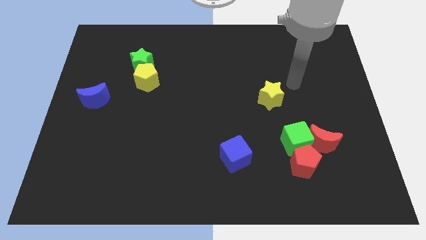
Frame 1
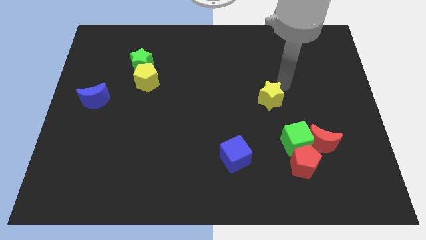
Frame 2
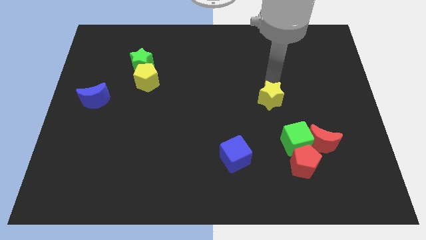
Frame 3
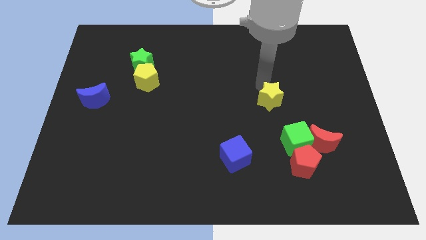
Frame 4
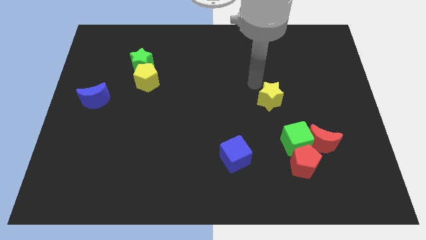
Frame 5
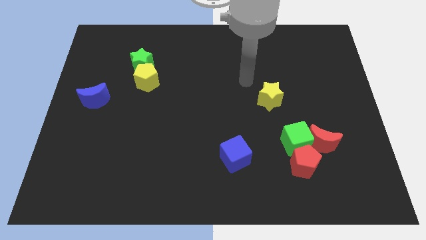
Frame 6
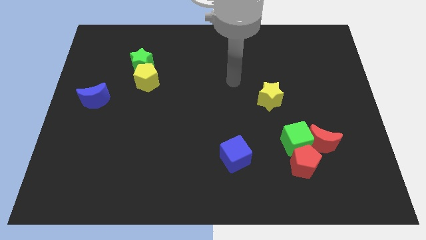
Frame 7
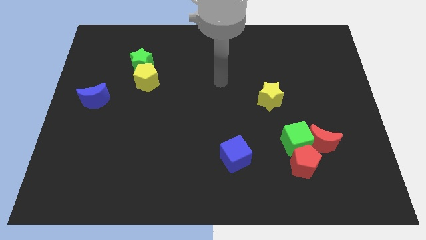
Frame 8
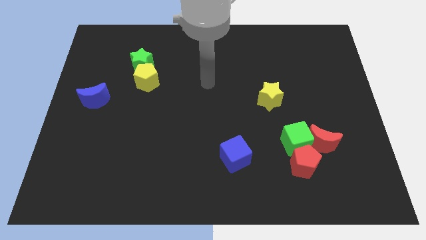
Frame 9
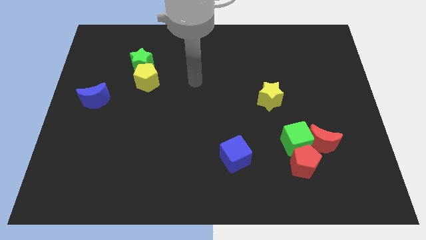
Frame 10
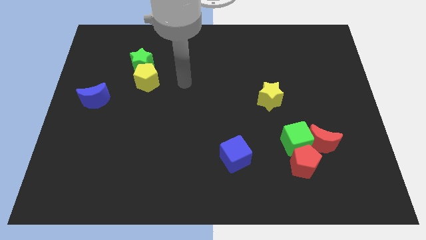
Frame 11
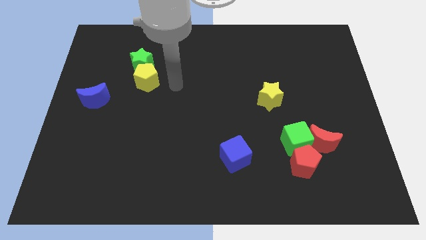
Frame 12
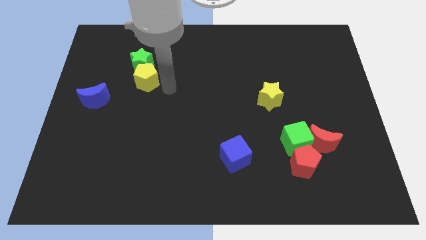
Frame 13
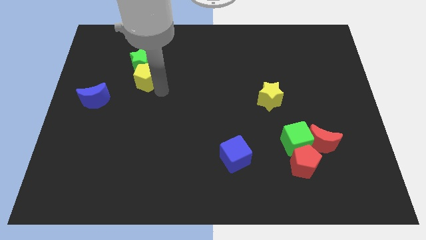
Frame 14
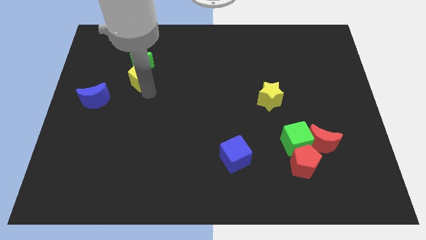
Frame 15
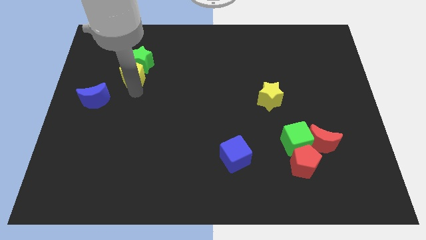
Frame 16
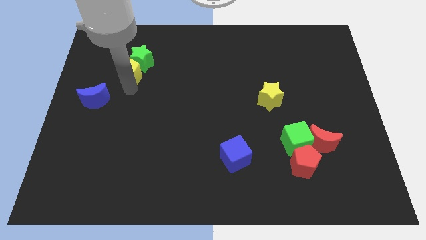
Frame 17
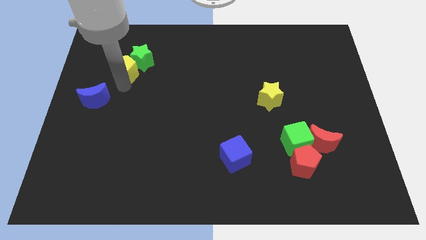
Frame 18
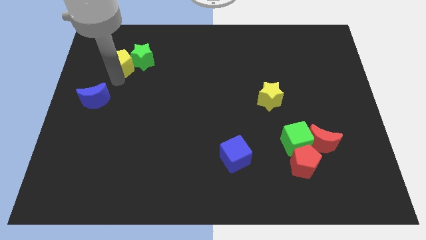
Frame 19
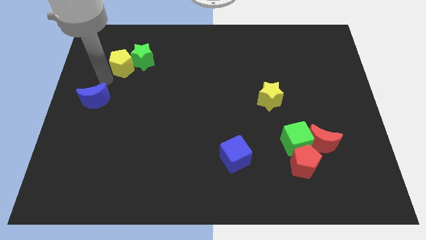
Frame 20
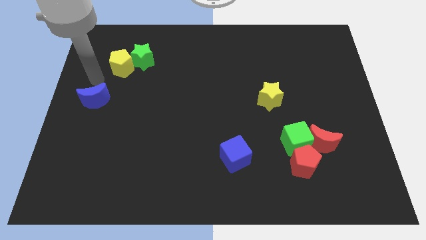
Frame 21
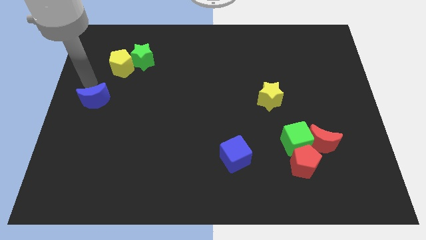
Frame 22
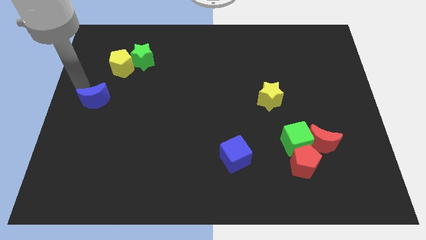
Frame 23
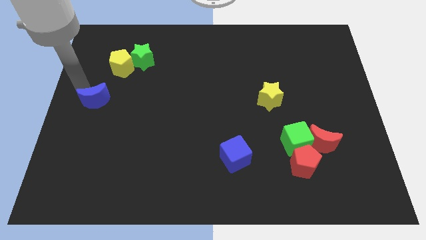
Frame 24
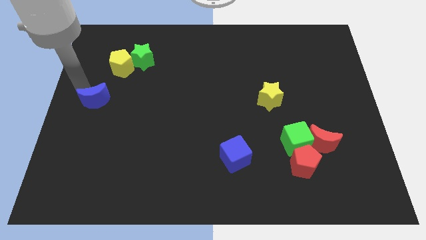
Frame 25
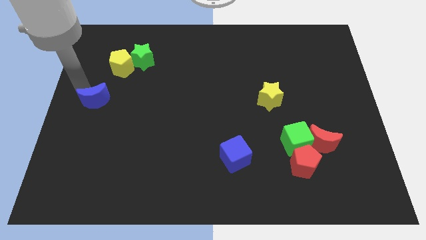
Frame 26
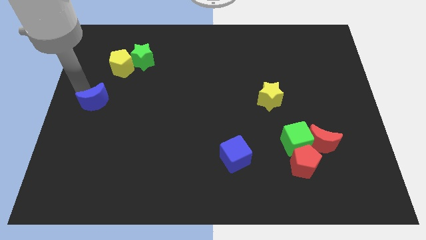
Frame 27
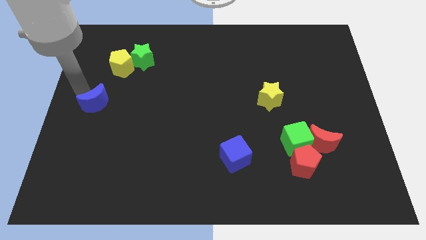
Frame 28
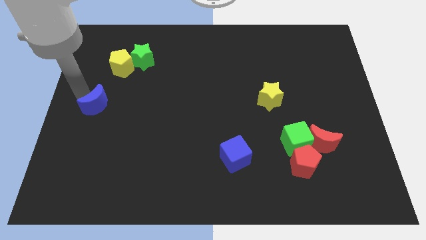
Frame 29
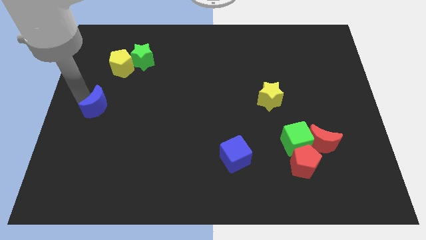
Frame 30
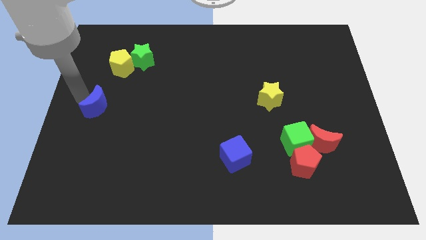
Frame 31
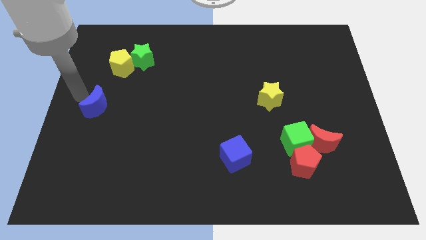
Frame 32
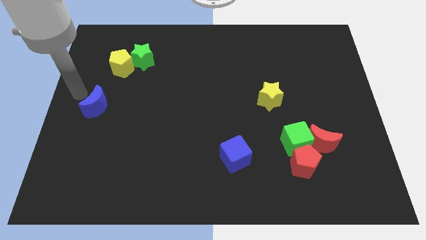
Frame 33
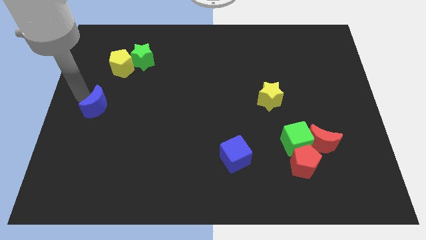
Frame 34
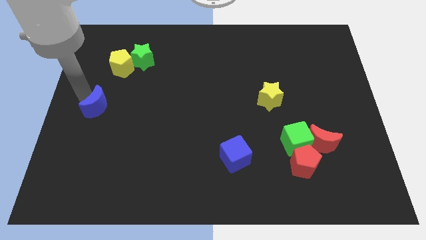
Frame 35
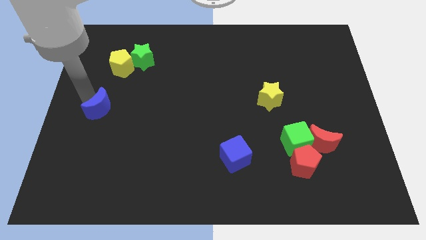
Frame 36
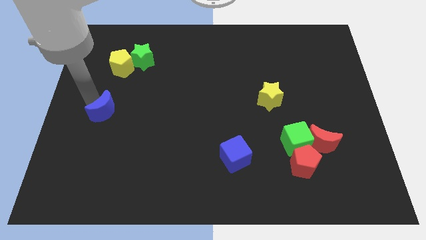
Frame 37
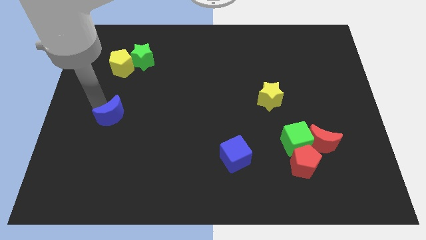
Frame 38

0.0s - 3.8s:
slide the blue moon a little bit down and to the right

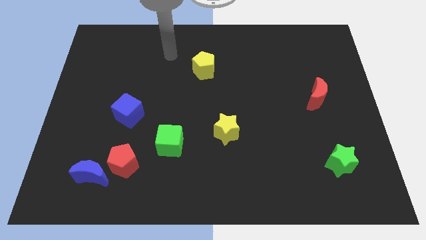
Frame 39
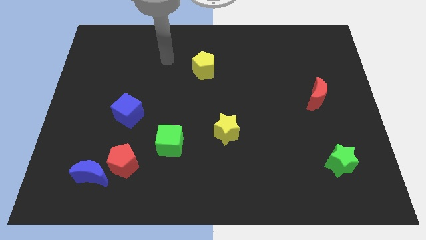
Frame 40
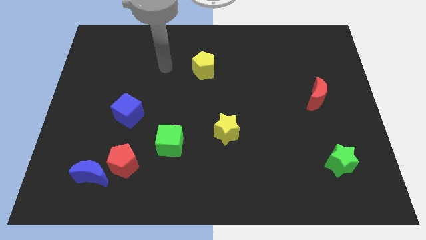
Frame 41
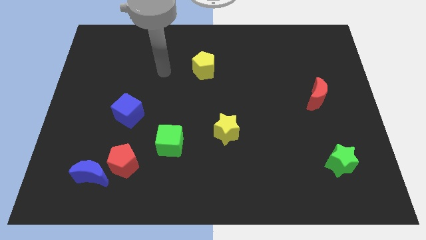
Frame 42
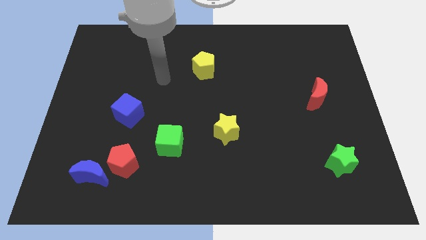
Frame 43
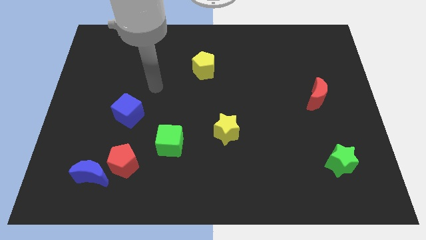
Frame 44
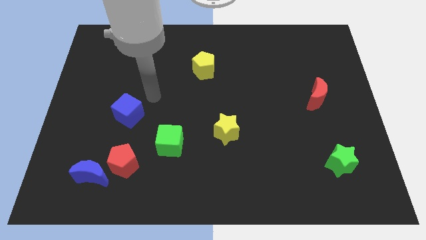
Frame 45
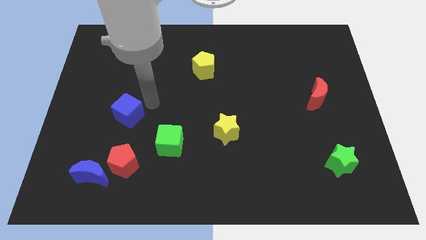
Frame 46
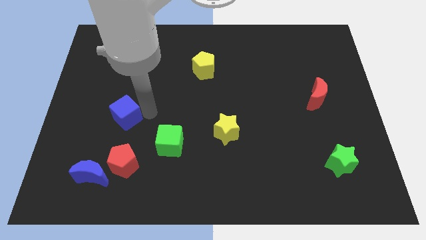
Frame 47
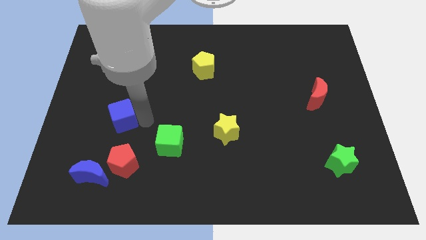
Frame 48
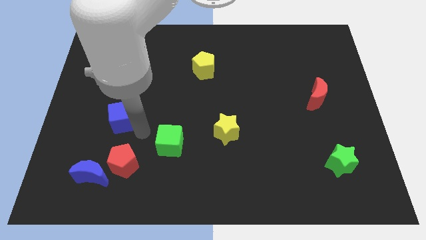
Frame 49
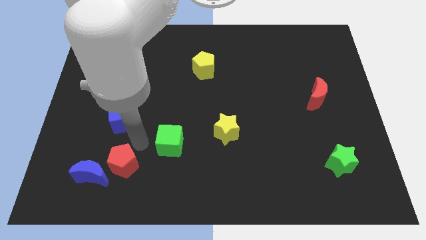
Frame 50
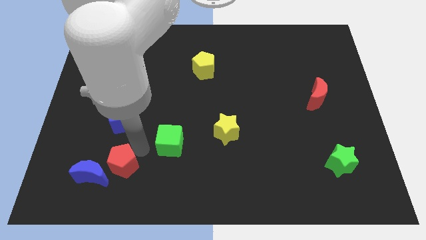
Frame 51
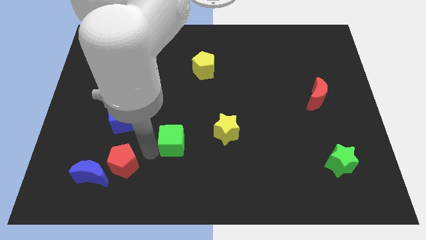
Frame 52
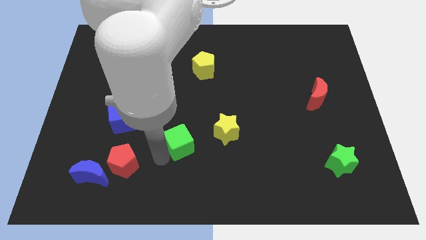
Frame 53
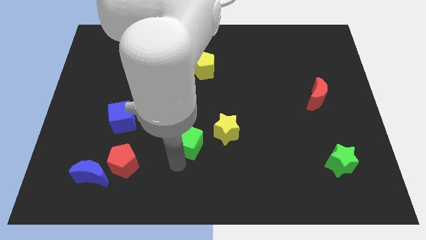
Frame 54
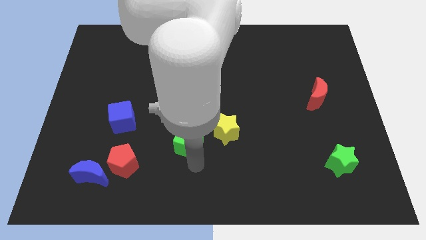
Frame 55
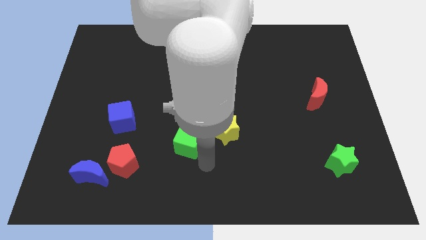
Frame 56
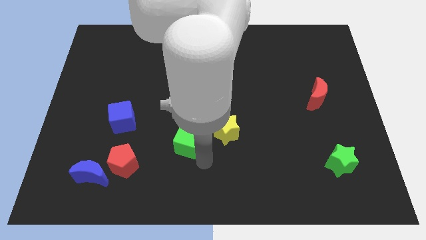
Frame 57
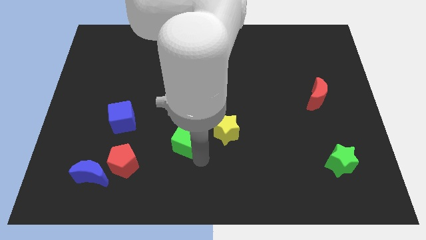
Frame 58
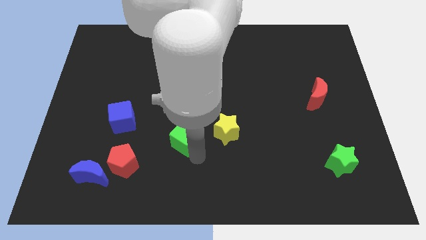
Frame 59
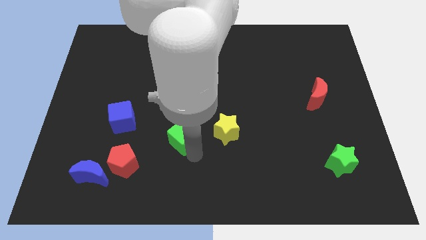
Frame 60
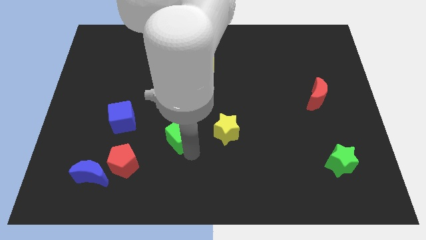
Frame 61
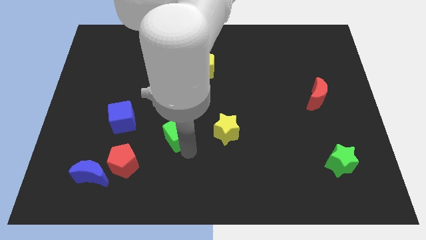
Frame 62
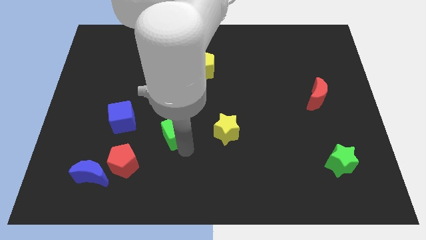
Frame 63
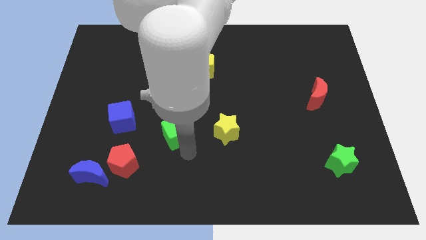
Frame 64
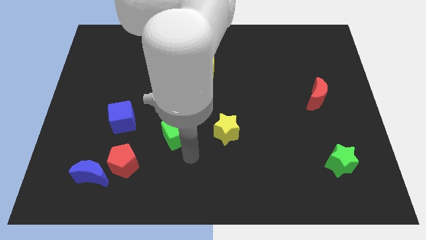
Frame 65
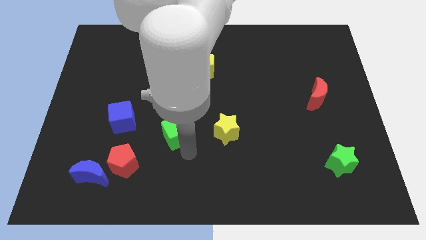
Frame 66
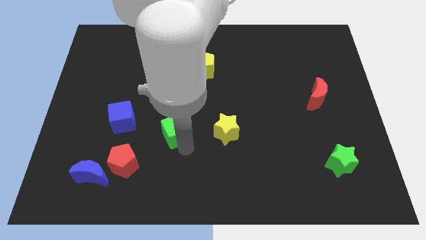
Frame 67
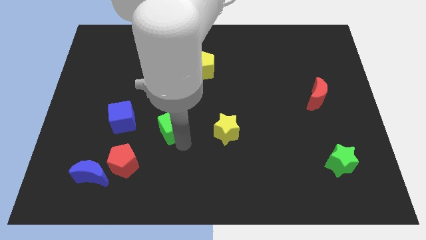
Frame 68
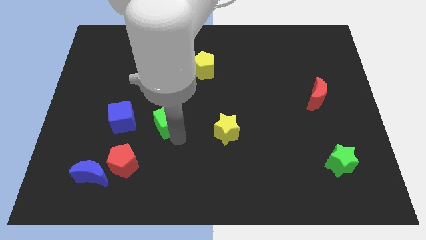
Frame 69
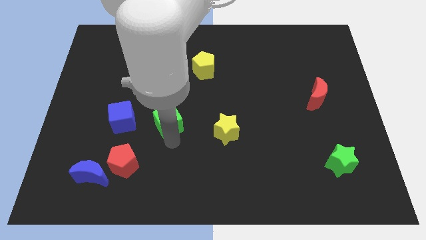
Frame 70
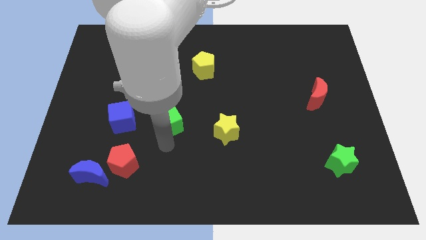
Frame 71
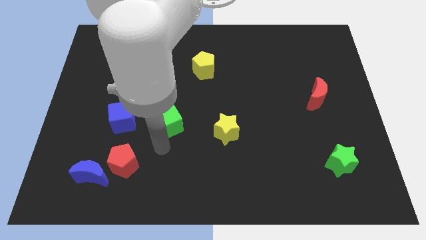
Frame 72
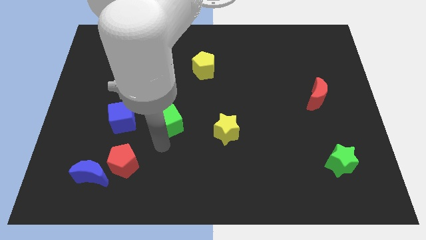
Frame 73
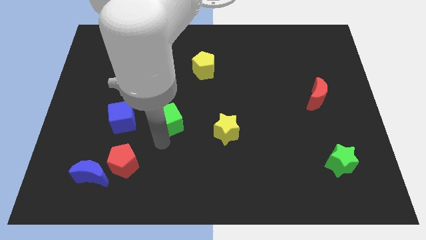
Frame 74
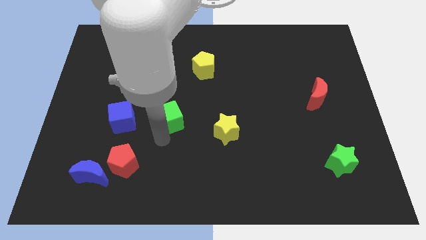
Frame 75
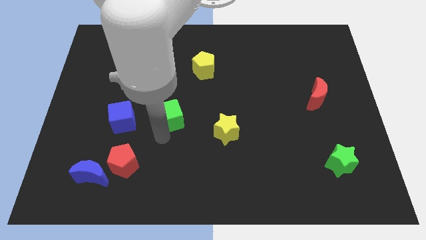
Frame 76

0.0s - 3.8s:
push the green cube up a little

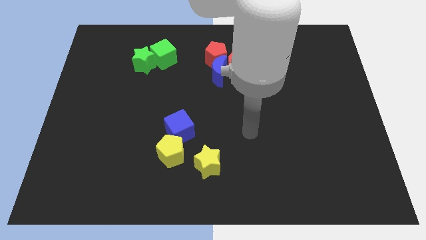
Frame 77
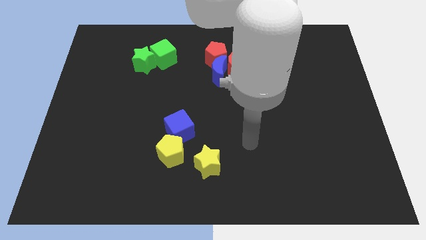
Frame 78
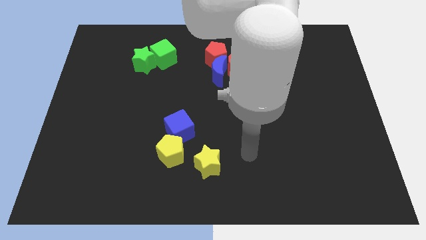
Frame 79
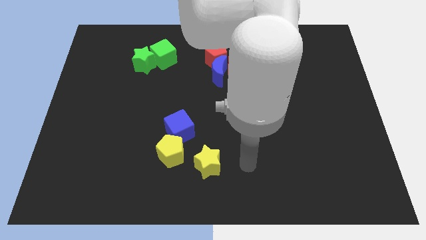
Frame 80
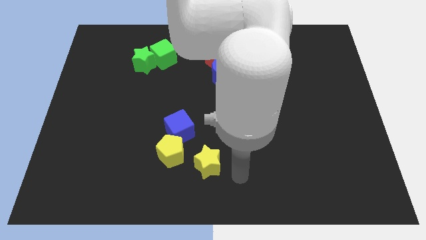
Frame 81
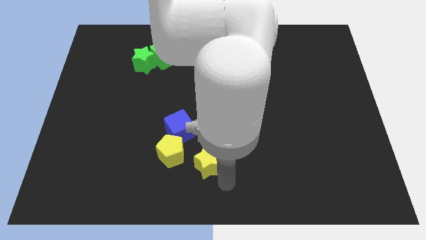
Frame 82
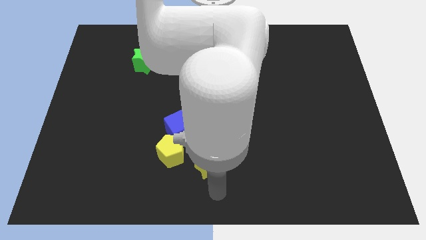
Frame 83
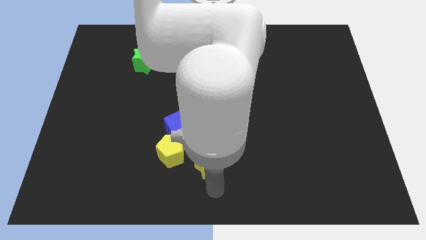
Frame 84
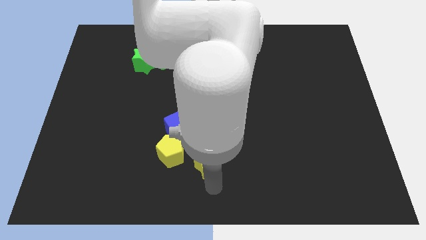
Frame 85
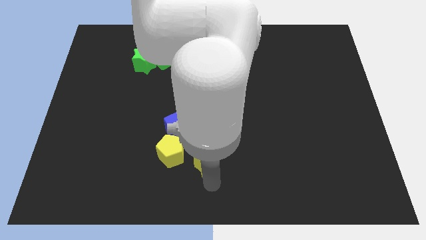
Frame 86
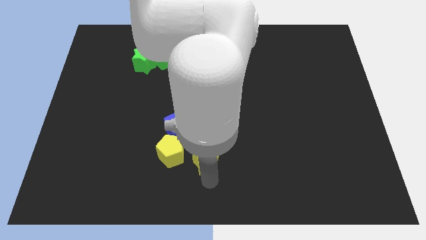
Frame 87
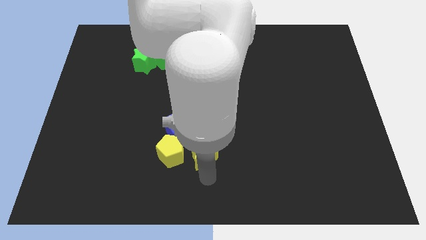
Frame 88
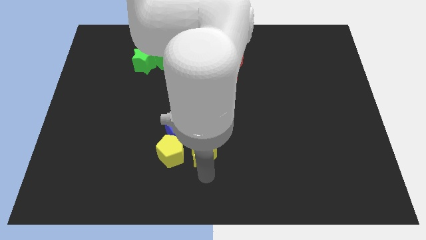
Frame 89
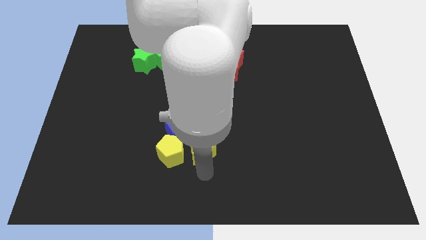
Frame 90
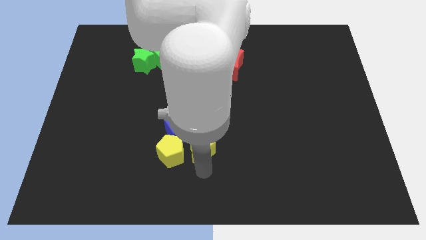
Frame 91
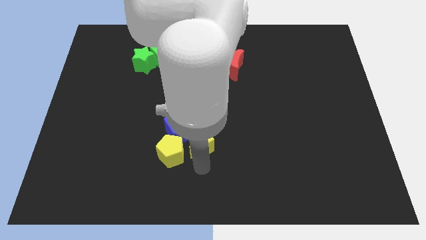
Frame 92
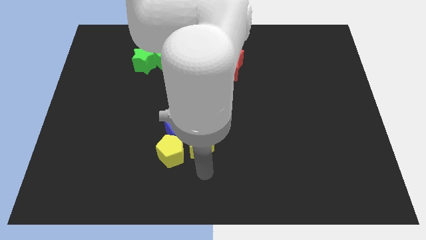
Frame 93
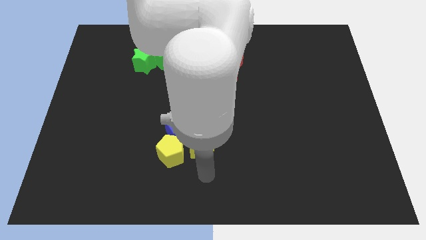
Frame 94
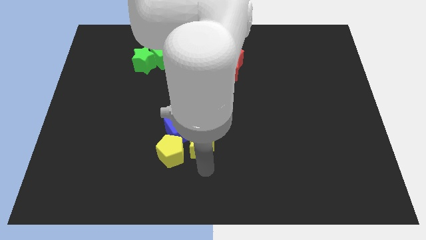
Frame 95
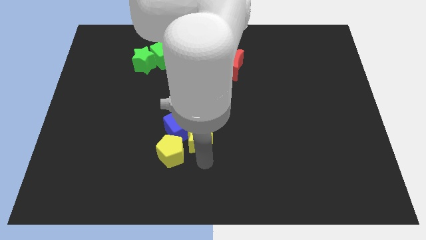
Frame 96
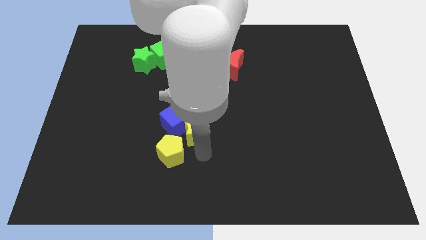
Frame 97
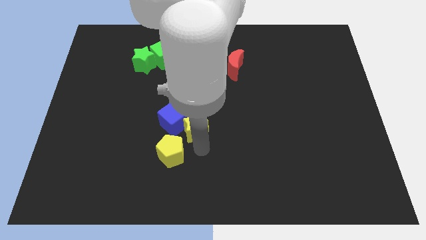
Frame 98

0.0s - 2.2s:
move the yellow star up and left somewhat
